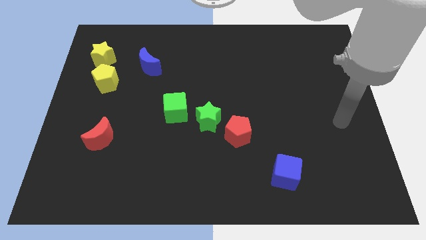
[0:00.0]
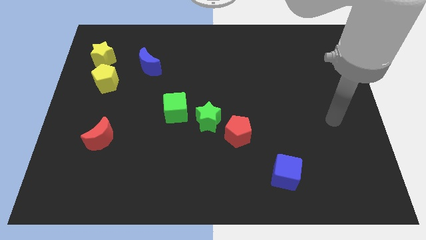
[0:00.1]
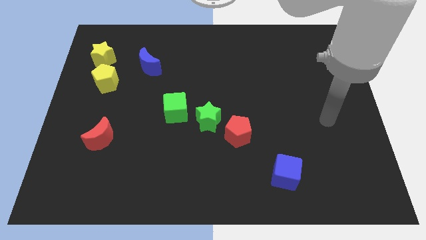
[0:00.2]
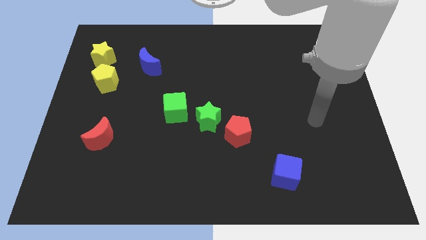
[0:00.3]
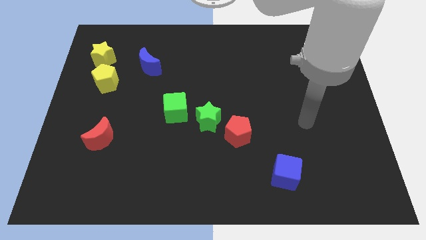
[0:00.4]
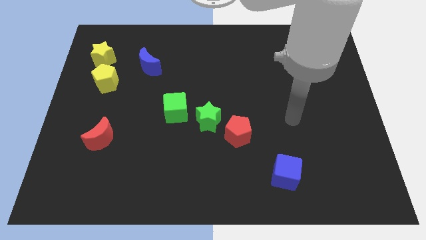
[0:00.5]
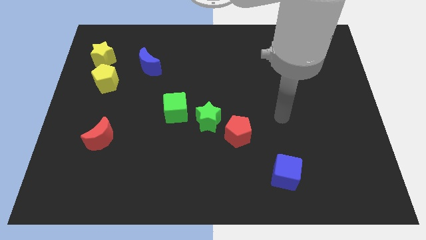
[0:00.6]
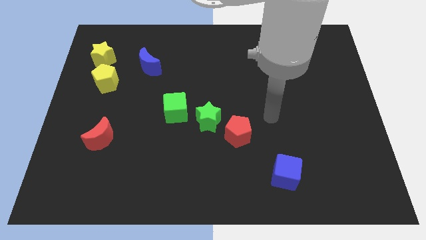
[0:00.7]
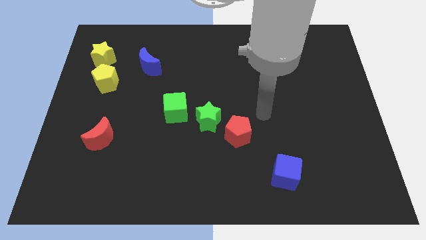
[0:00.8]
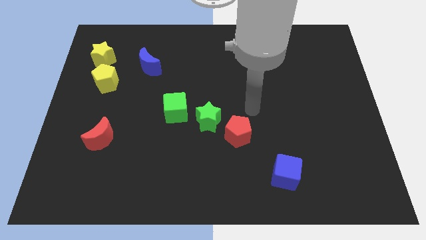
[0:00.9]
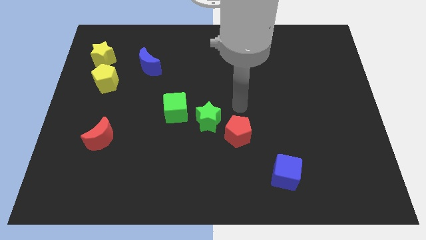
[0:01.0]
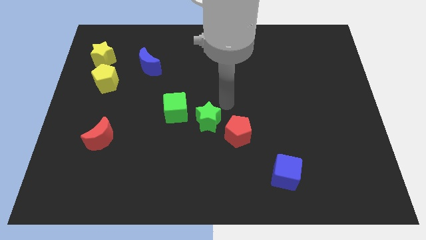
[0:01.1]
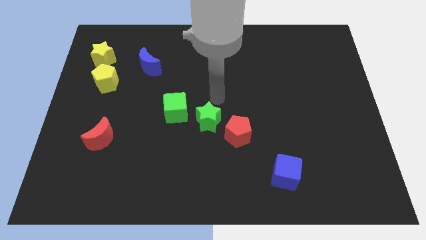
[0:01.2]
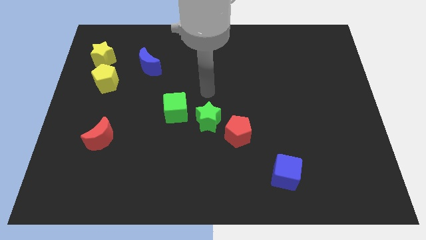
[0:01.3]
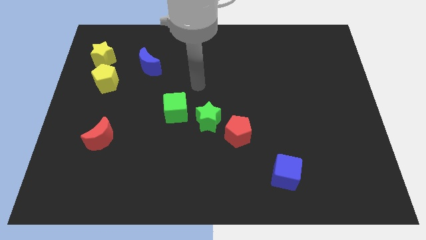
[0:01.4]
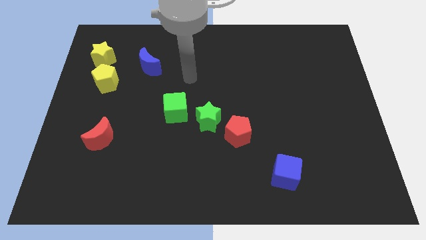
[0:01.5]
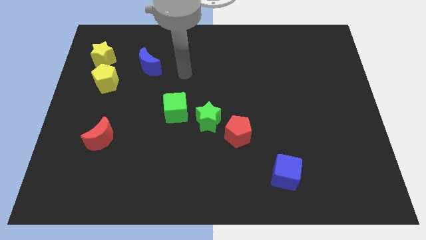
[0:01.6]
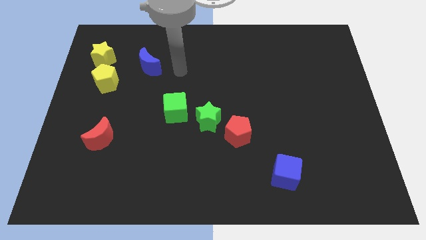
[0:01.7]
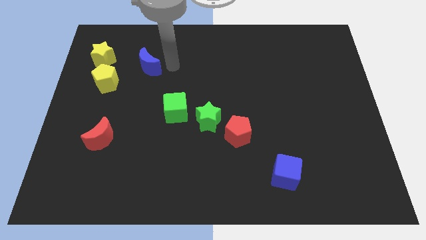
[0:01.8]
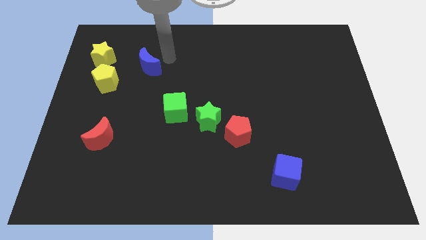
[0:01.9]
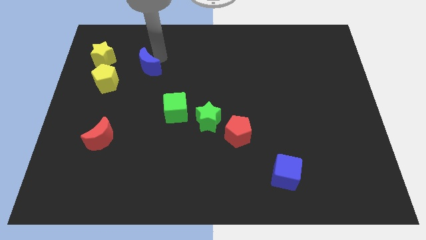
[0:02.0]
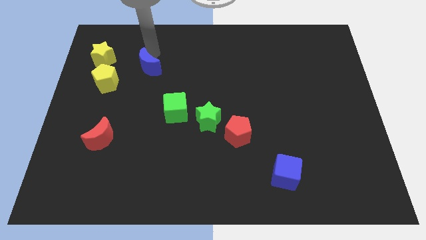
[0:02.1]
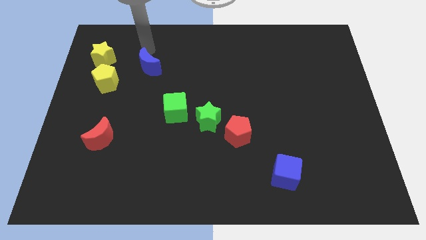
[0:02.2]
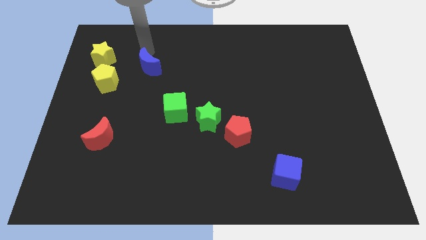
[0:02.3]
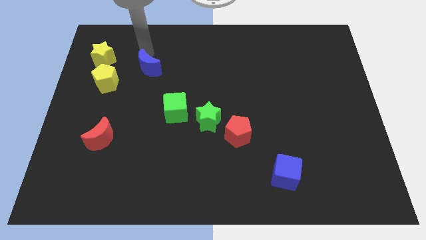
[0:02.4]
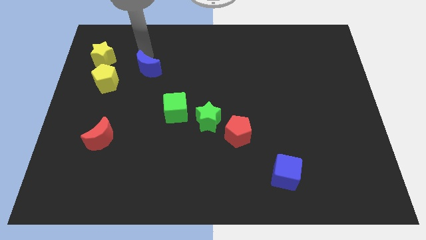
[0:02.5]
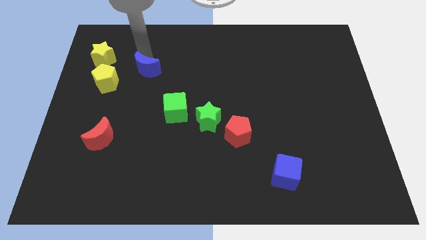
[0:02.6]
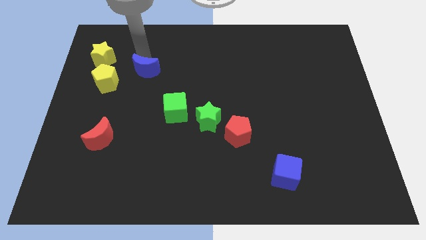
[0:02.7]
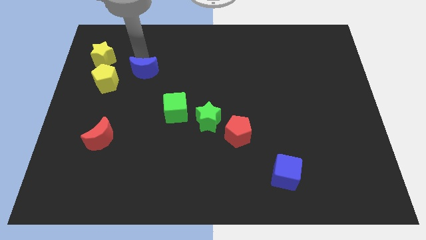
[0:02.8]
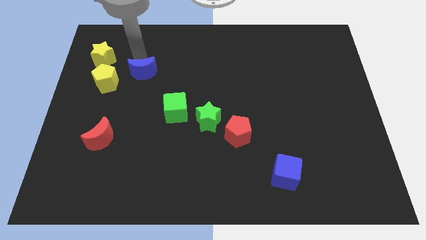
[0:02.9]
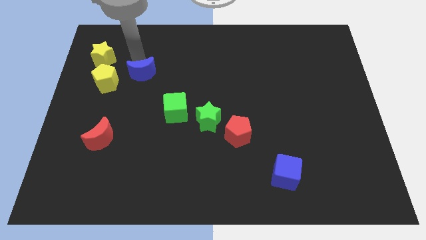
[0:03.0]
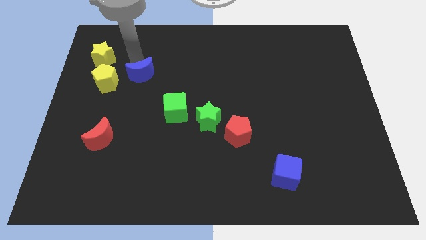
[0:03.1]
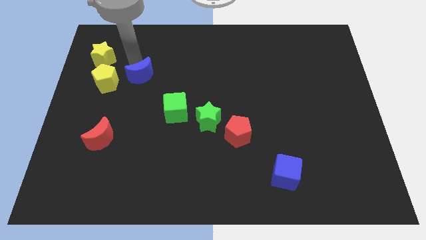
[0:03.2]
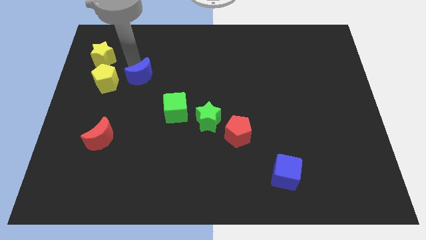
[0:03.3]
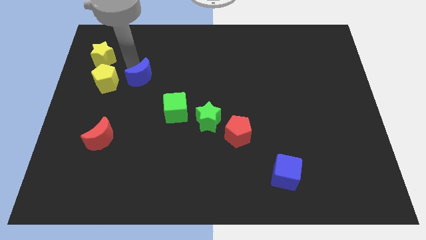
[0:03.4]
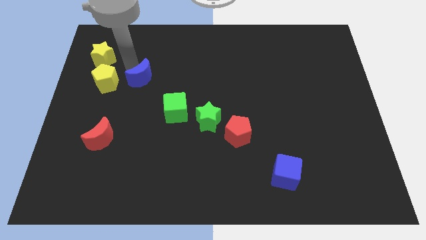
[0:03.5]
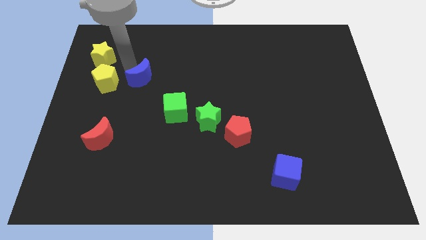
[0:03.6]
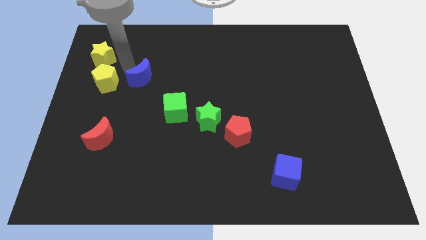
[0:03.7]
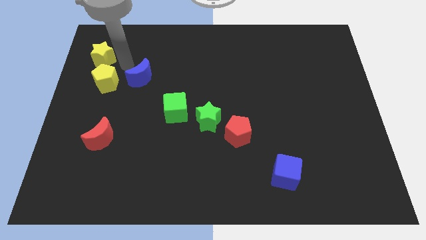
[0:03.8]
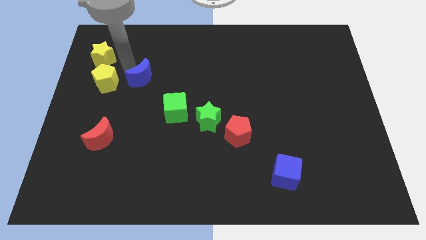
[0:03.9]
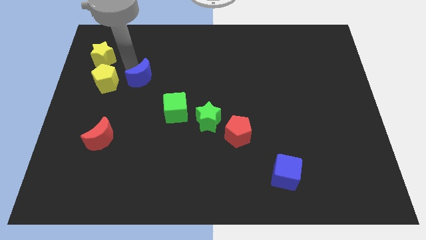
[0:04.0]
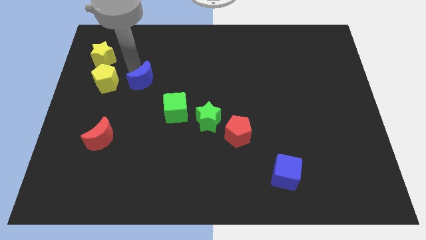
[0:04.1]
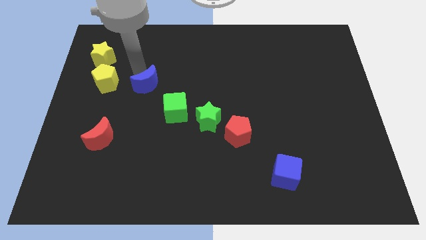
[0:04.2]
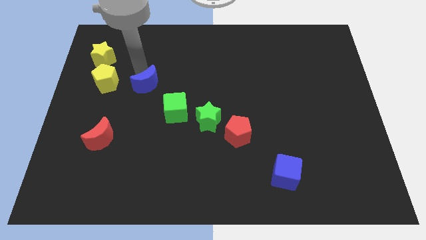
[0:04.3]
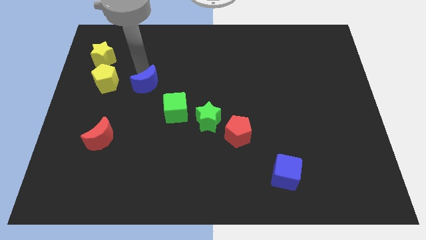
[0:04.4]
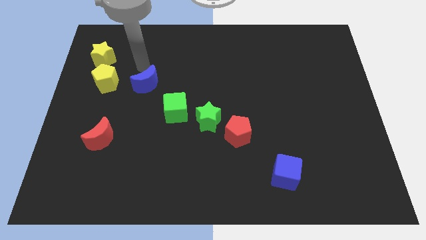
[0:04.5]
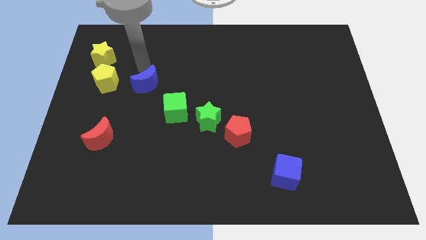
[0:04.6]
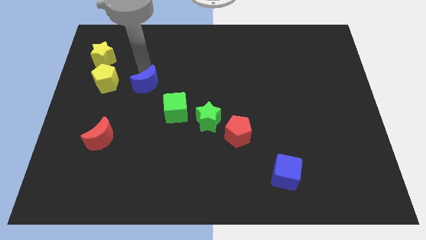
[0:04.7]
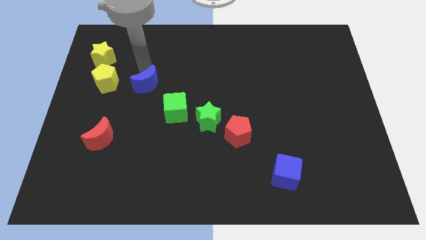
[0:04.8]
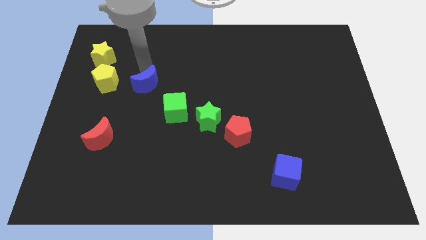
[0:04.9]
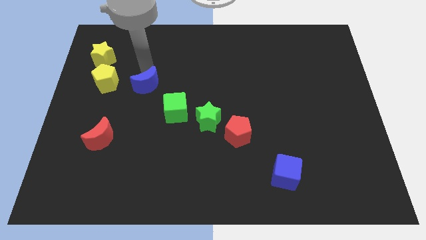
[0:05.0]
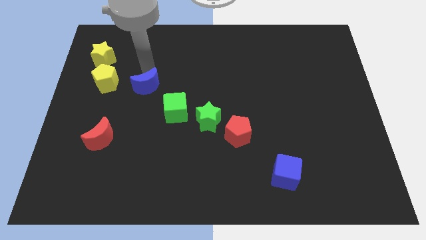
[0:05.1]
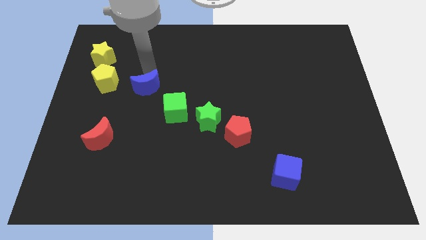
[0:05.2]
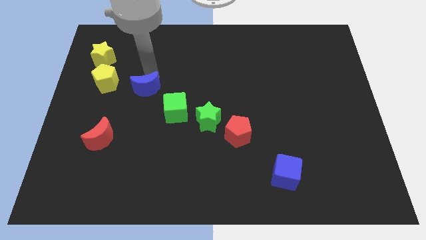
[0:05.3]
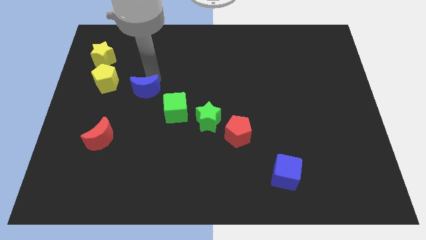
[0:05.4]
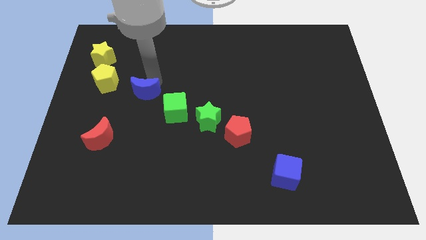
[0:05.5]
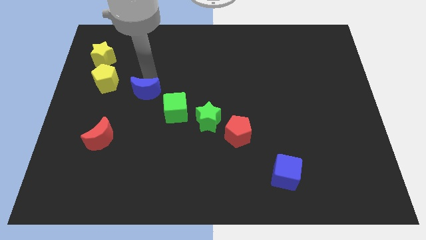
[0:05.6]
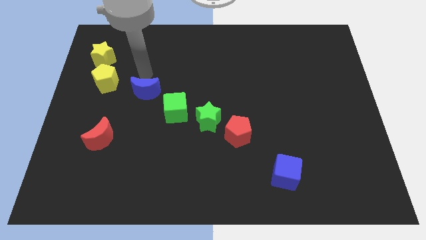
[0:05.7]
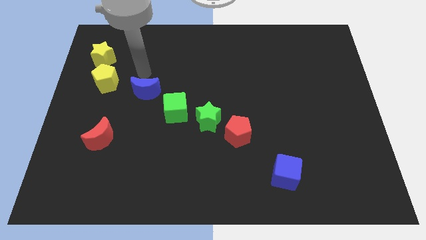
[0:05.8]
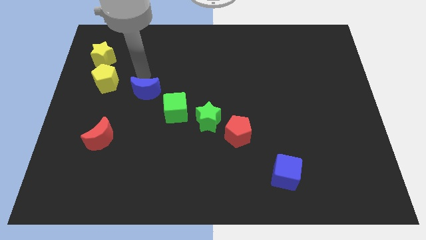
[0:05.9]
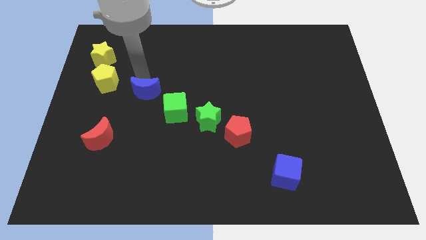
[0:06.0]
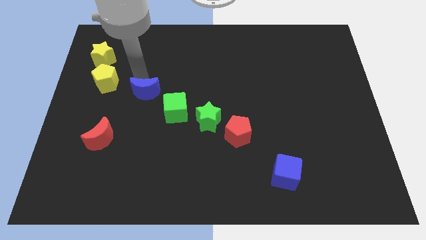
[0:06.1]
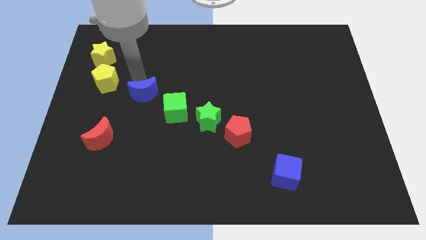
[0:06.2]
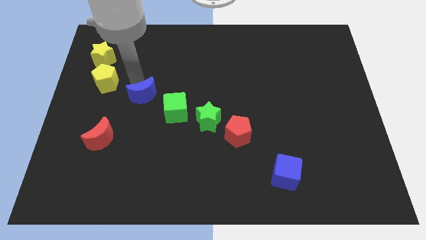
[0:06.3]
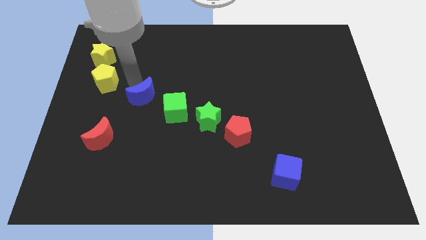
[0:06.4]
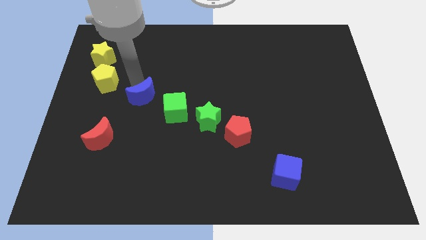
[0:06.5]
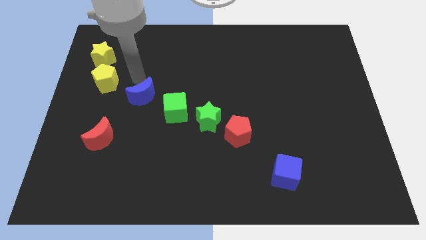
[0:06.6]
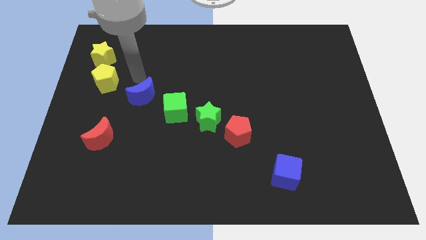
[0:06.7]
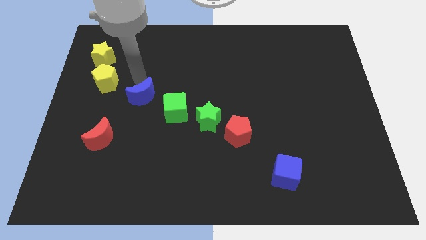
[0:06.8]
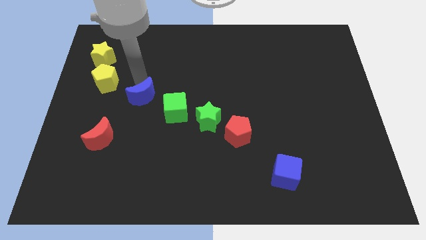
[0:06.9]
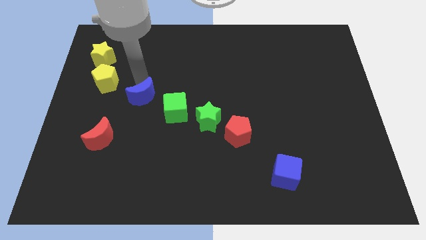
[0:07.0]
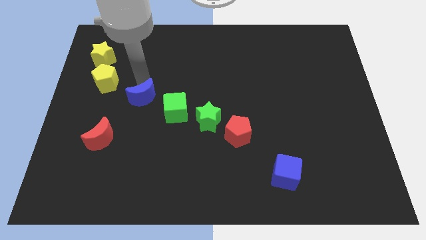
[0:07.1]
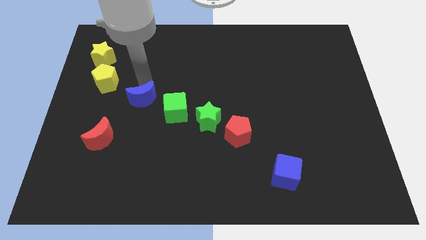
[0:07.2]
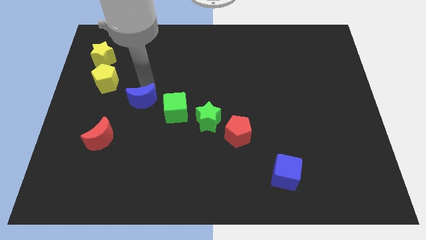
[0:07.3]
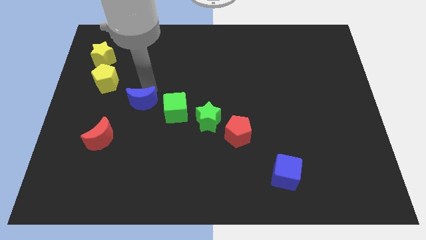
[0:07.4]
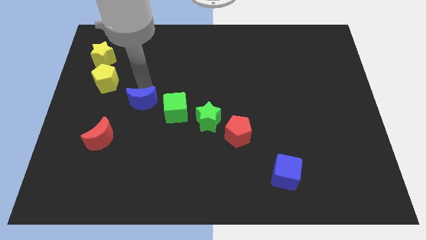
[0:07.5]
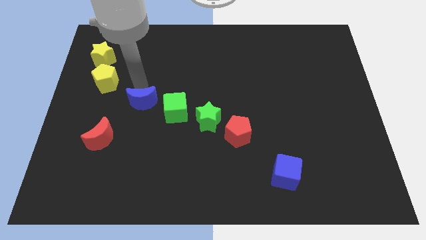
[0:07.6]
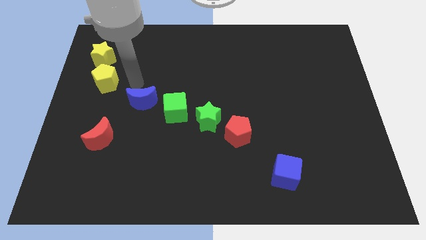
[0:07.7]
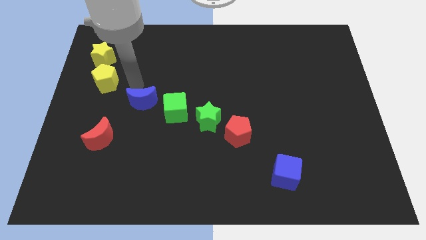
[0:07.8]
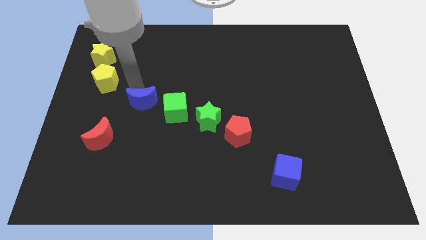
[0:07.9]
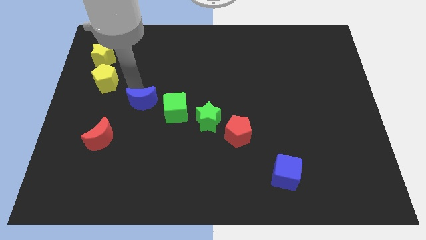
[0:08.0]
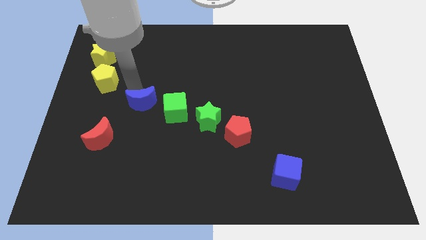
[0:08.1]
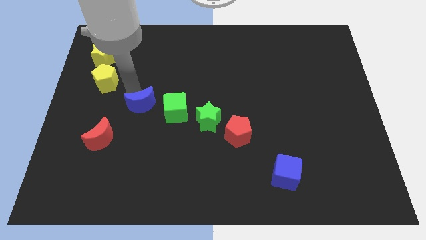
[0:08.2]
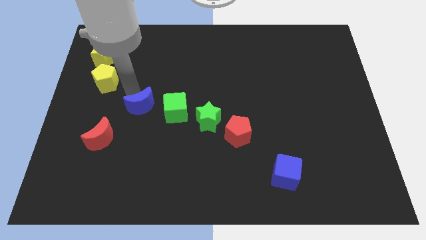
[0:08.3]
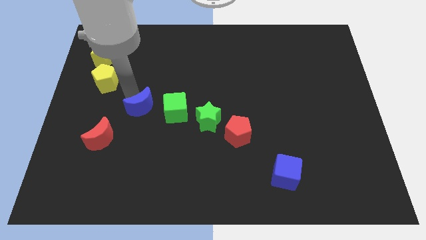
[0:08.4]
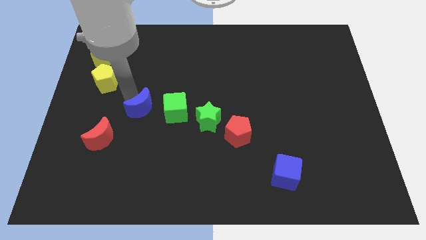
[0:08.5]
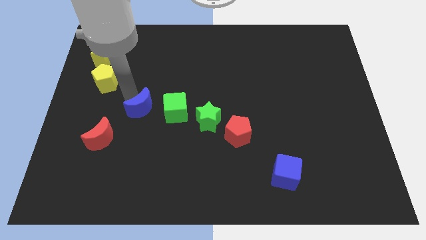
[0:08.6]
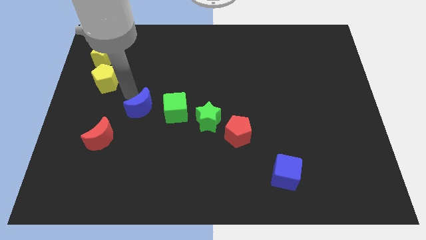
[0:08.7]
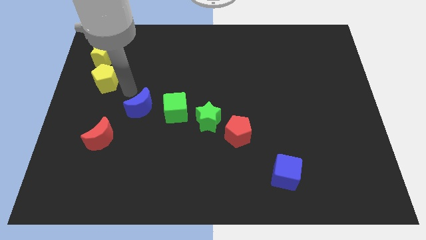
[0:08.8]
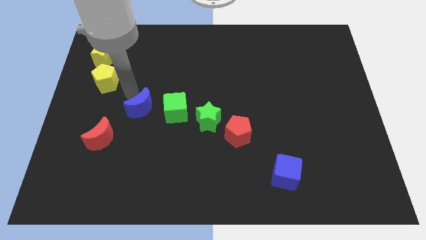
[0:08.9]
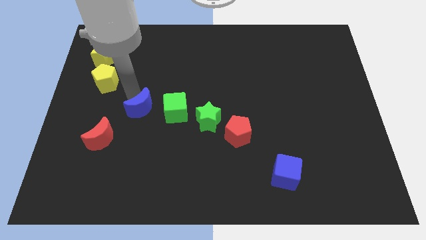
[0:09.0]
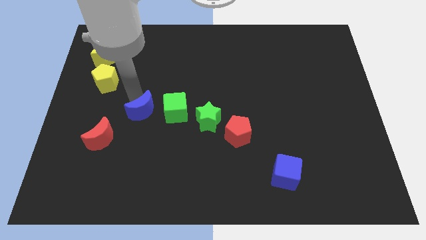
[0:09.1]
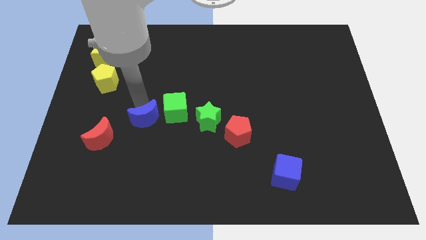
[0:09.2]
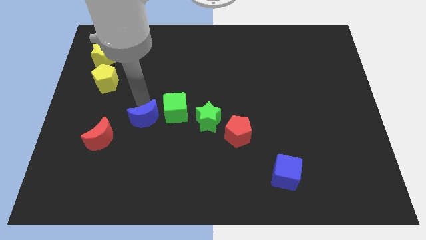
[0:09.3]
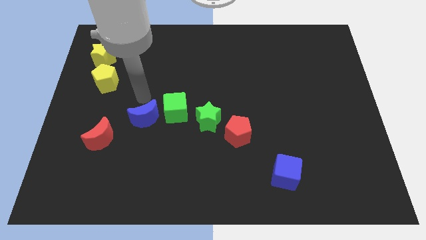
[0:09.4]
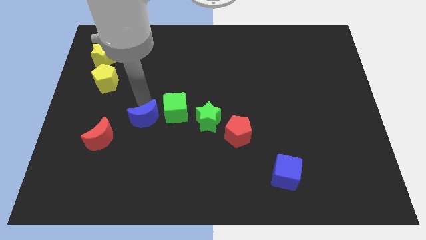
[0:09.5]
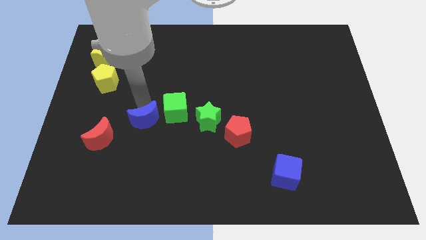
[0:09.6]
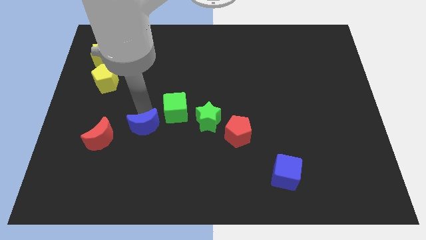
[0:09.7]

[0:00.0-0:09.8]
slide the blue moon to the right side of the red moon
